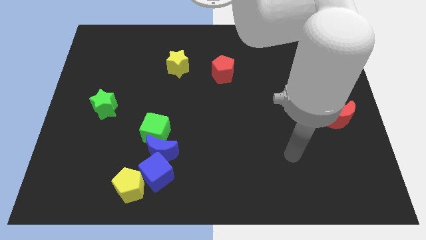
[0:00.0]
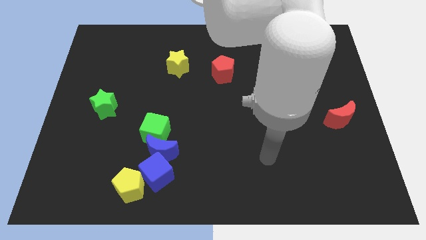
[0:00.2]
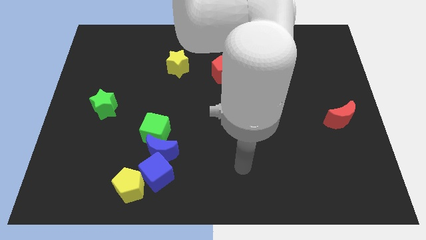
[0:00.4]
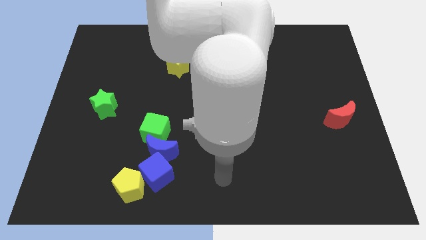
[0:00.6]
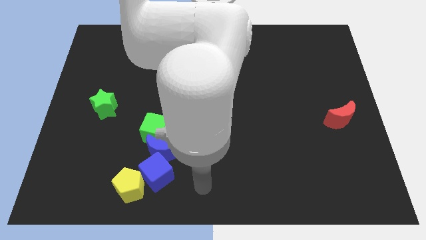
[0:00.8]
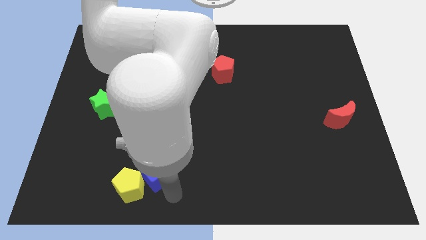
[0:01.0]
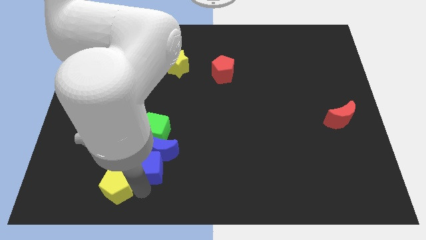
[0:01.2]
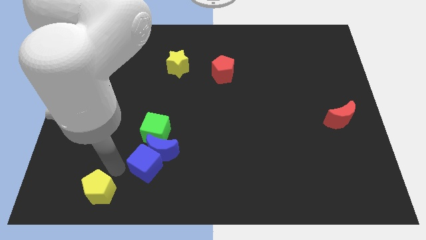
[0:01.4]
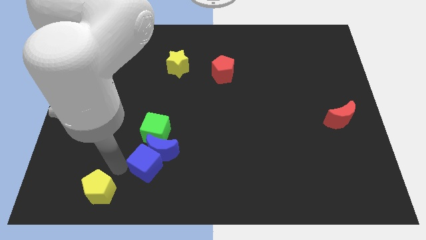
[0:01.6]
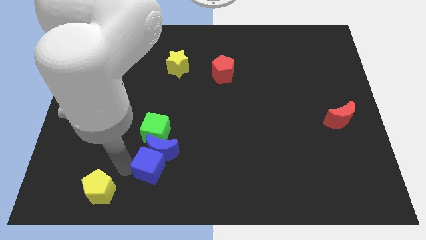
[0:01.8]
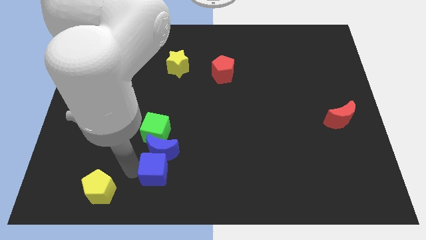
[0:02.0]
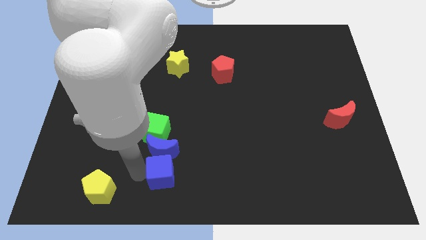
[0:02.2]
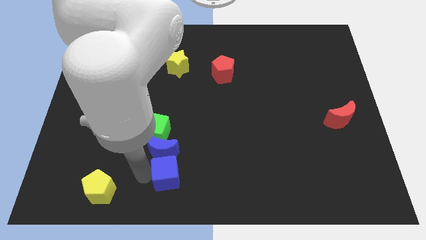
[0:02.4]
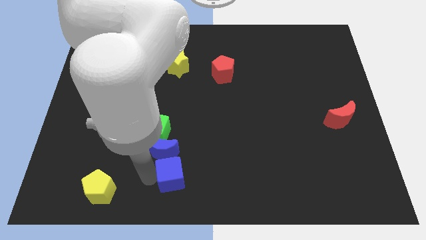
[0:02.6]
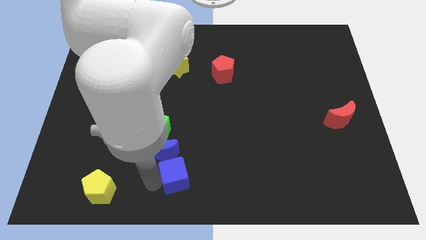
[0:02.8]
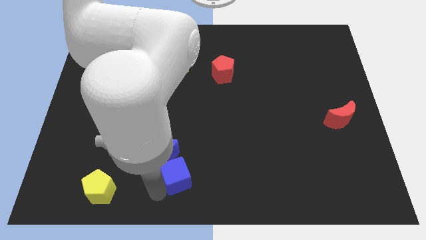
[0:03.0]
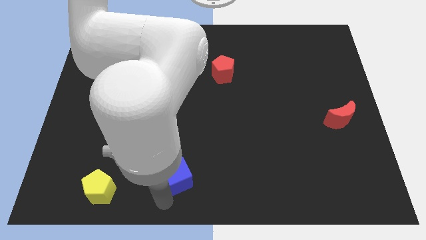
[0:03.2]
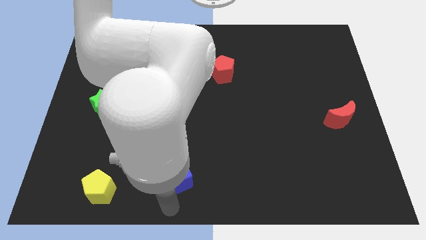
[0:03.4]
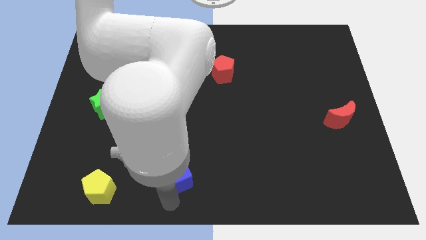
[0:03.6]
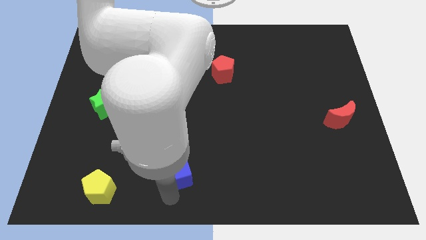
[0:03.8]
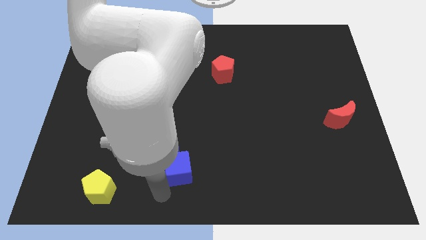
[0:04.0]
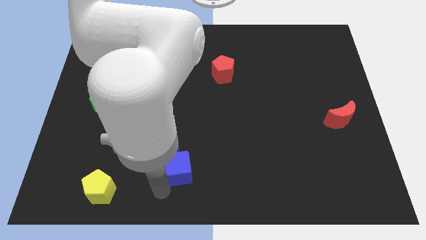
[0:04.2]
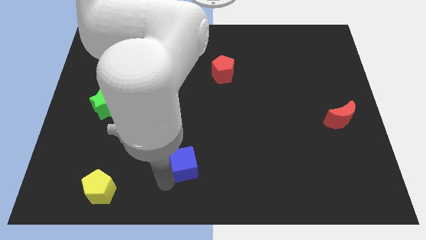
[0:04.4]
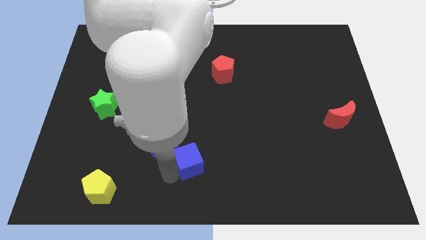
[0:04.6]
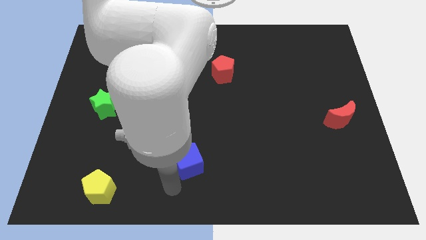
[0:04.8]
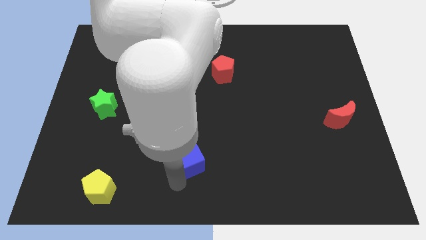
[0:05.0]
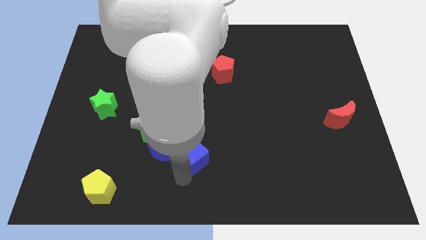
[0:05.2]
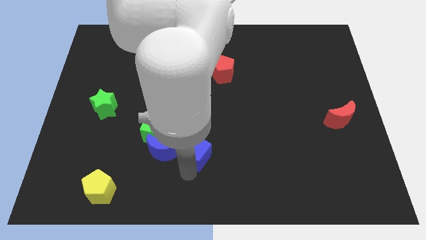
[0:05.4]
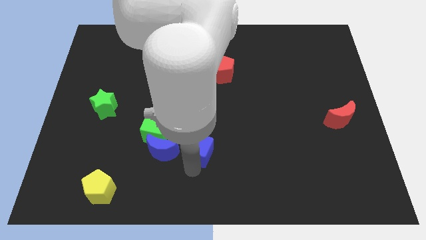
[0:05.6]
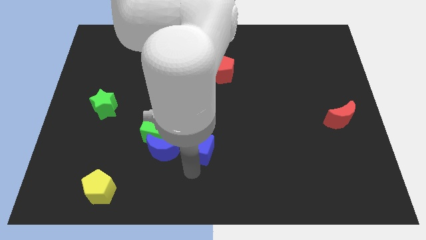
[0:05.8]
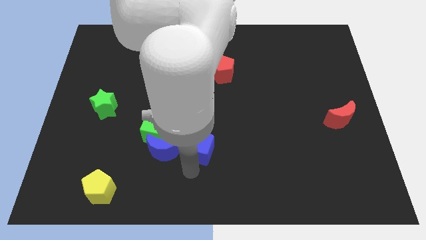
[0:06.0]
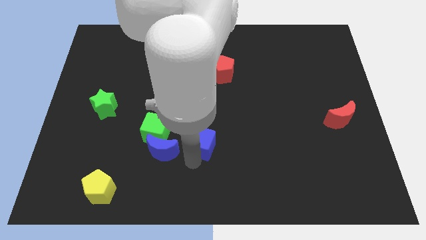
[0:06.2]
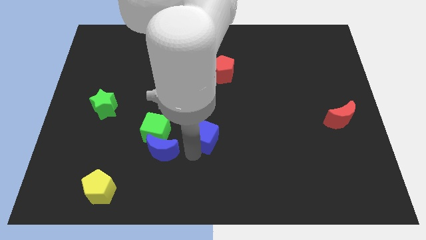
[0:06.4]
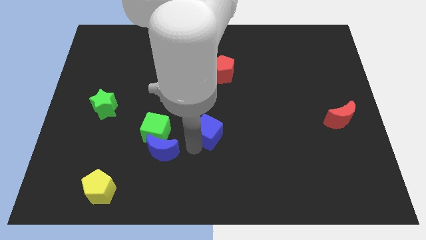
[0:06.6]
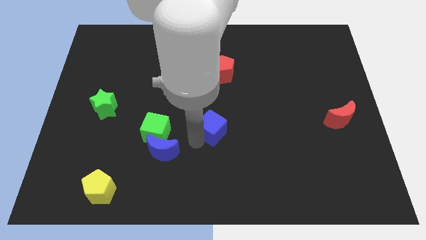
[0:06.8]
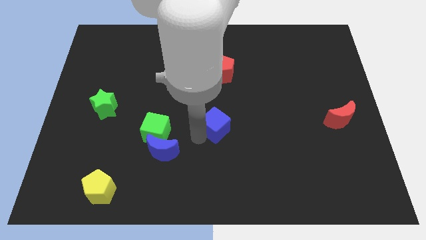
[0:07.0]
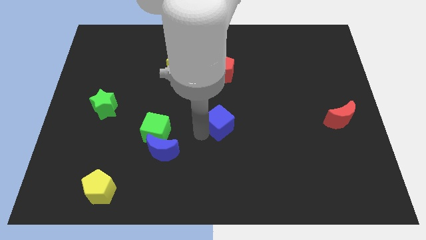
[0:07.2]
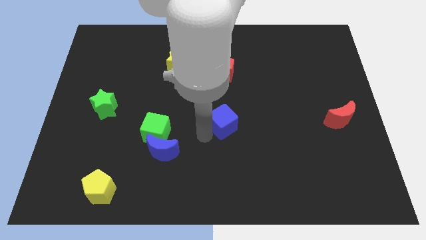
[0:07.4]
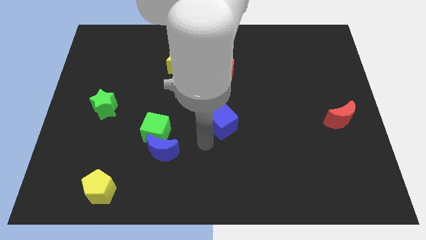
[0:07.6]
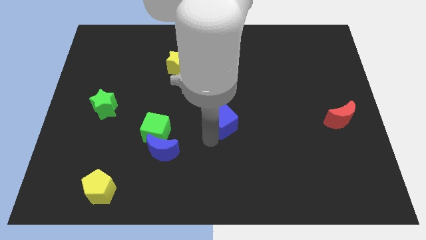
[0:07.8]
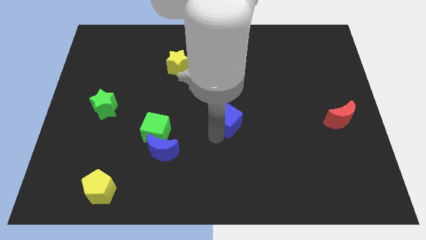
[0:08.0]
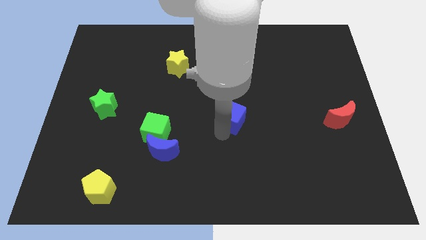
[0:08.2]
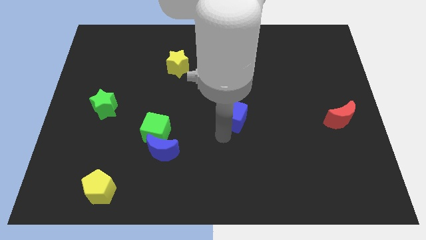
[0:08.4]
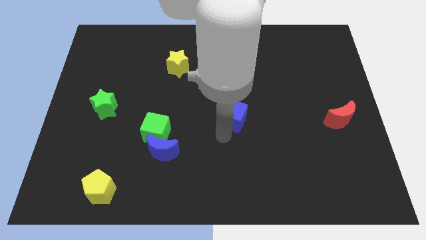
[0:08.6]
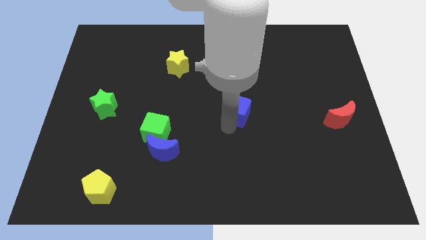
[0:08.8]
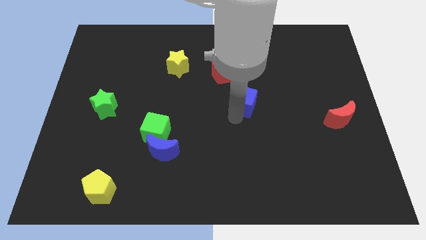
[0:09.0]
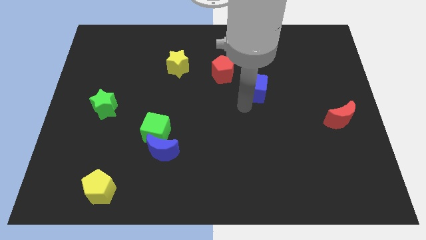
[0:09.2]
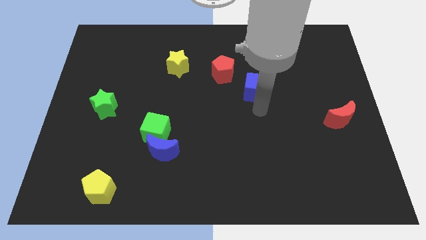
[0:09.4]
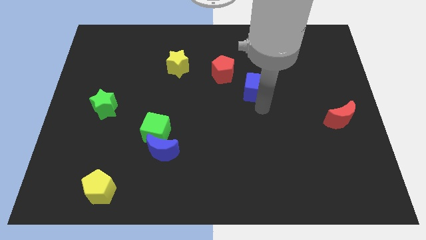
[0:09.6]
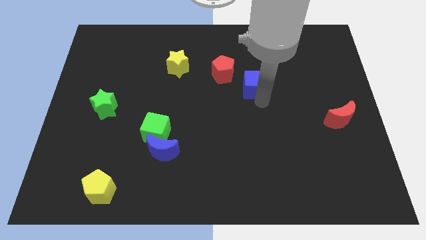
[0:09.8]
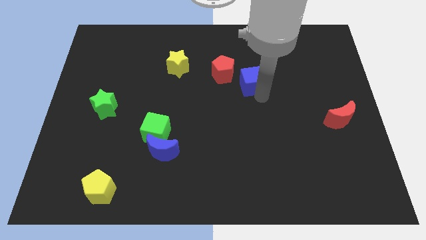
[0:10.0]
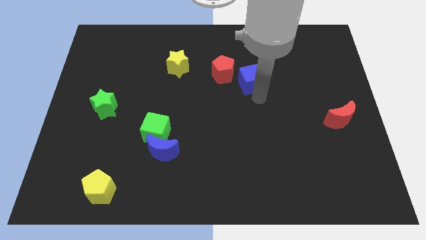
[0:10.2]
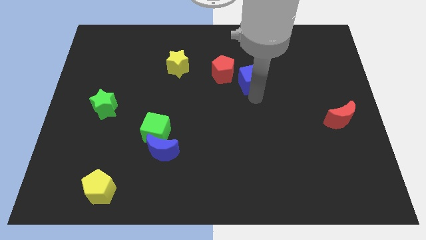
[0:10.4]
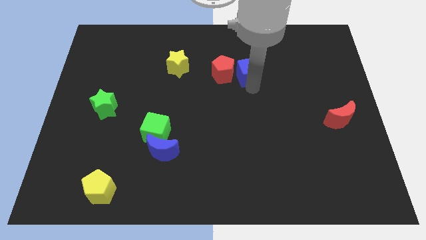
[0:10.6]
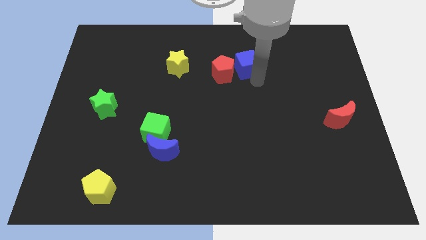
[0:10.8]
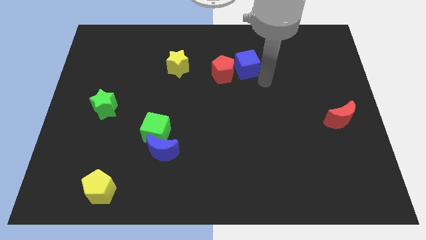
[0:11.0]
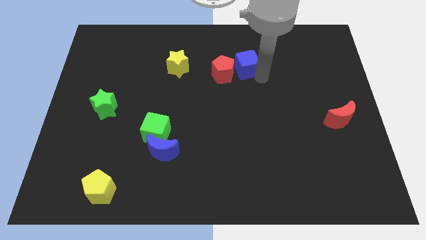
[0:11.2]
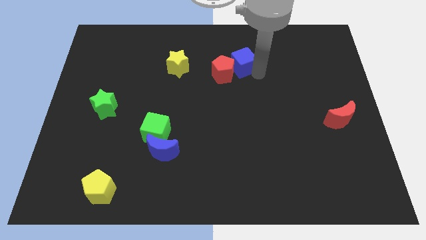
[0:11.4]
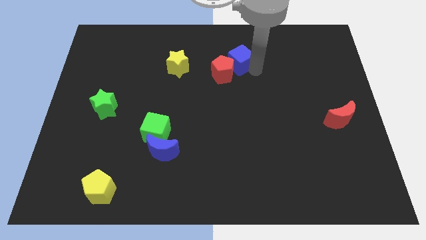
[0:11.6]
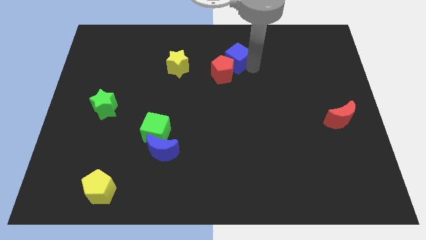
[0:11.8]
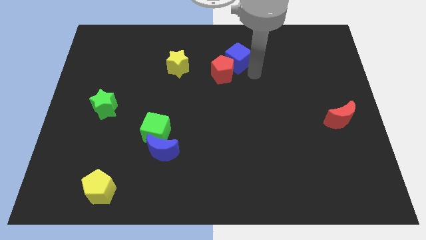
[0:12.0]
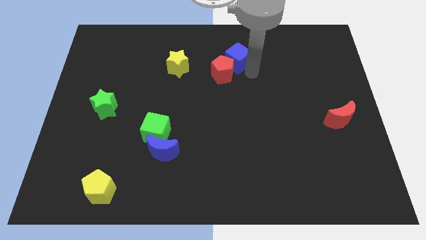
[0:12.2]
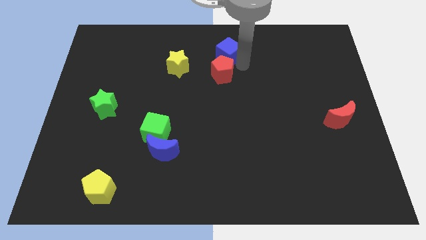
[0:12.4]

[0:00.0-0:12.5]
push the blue cube to the top side
